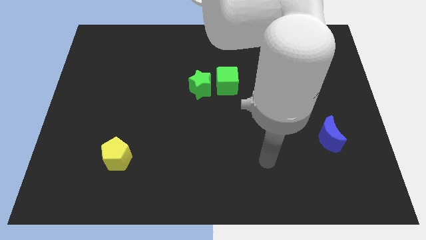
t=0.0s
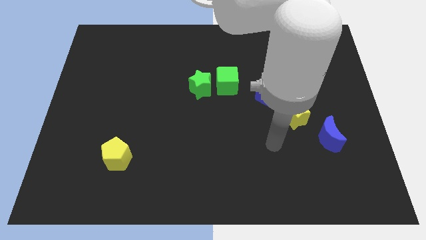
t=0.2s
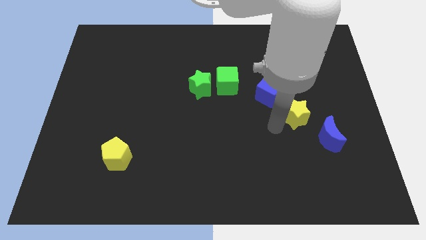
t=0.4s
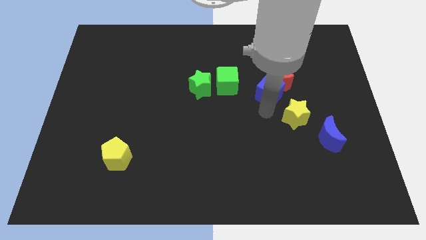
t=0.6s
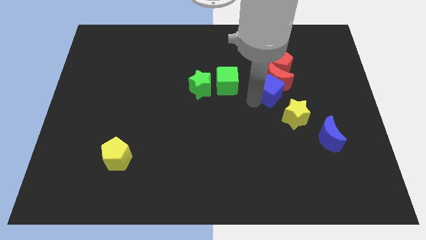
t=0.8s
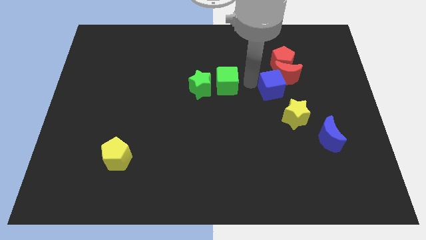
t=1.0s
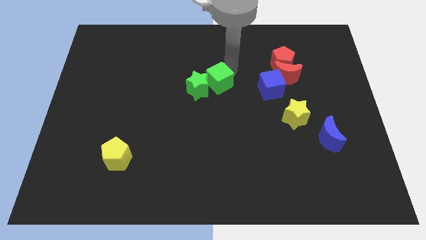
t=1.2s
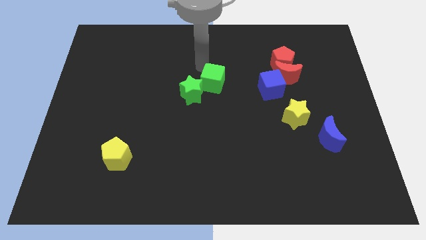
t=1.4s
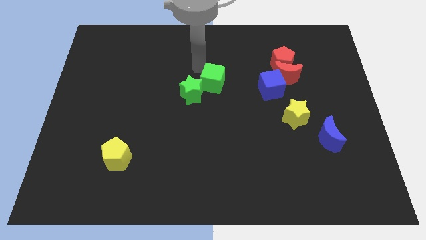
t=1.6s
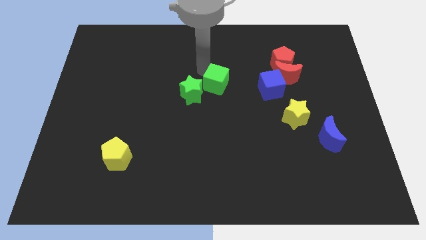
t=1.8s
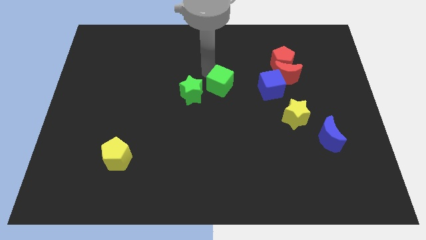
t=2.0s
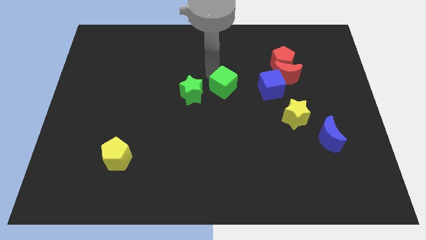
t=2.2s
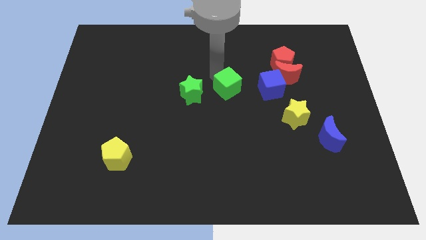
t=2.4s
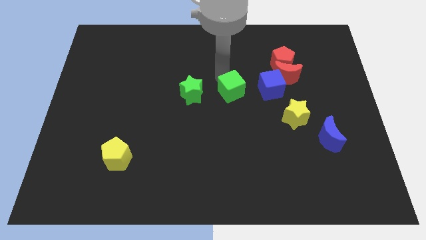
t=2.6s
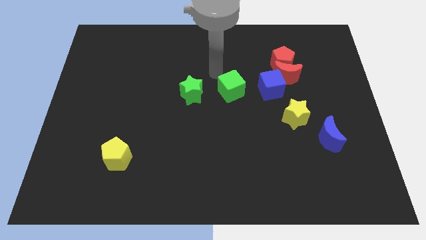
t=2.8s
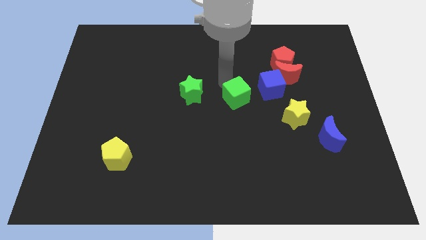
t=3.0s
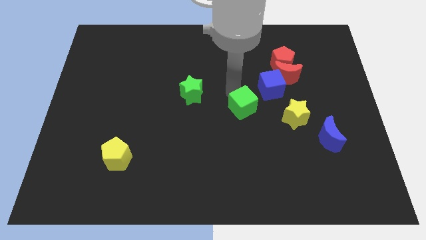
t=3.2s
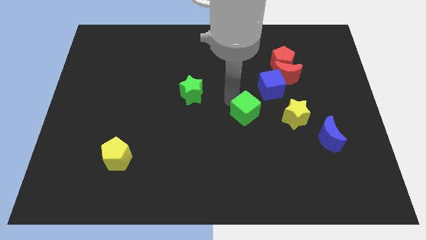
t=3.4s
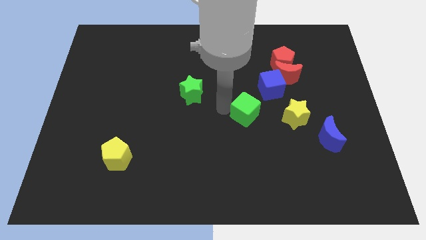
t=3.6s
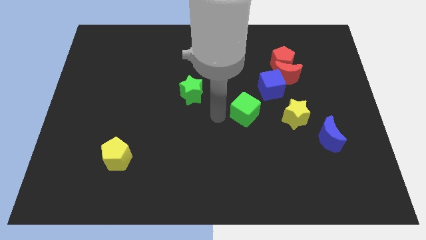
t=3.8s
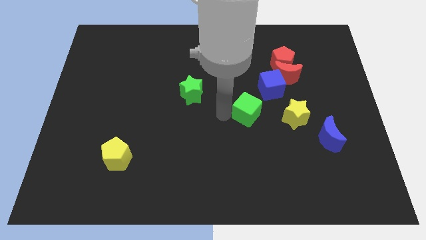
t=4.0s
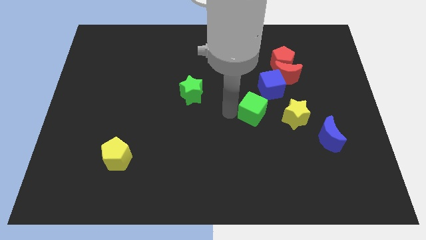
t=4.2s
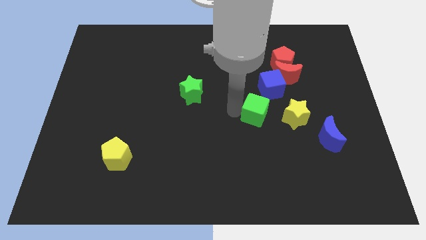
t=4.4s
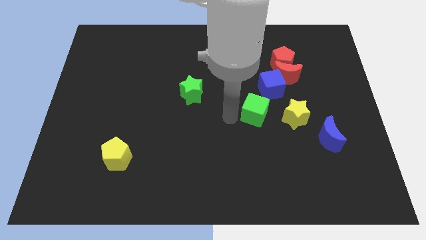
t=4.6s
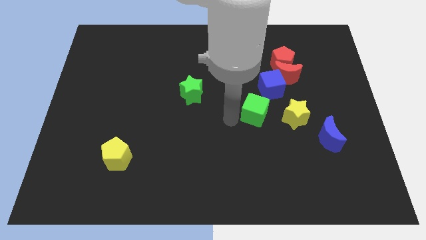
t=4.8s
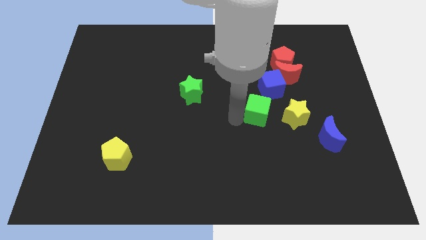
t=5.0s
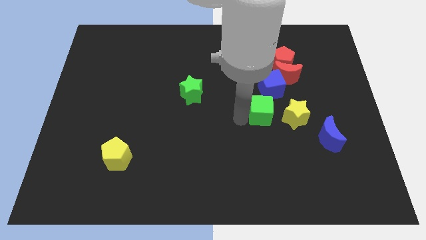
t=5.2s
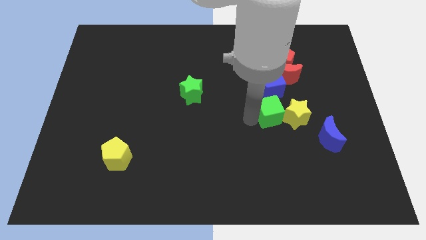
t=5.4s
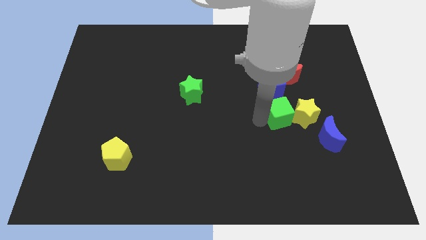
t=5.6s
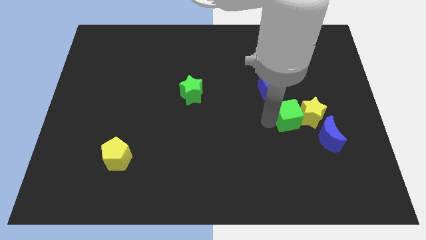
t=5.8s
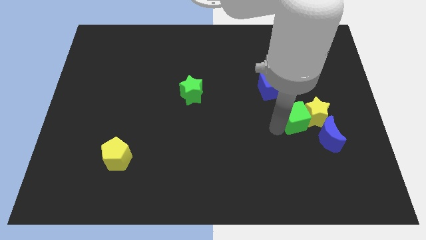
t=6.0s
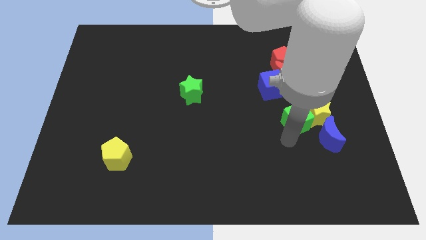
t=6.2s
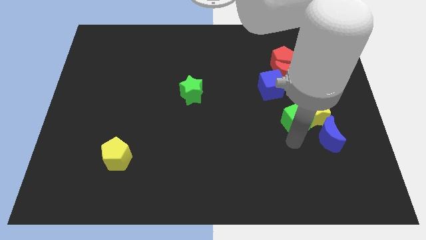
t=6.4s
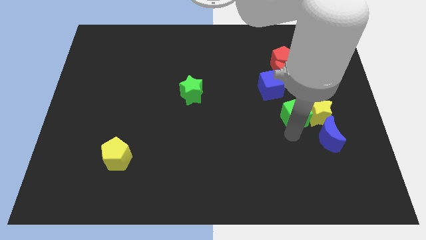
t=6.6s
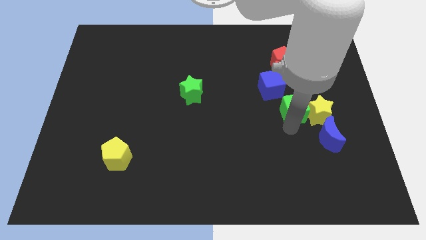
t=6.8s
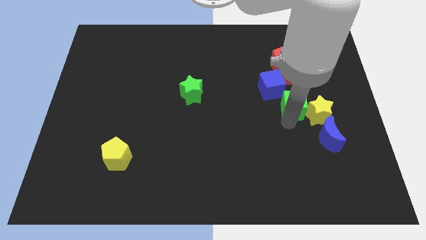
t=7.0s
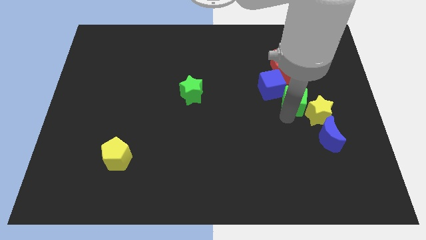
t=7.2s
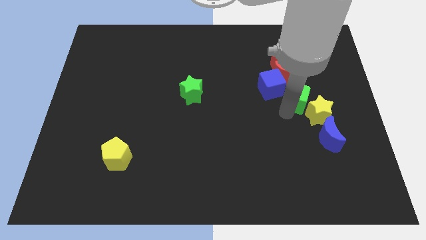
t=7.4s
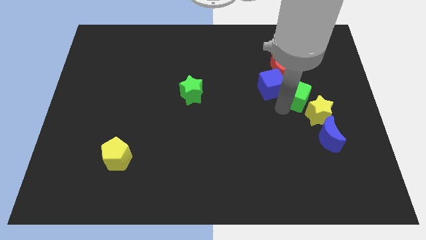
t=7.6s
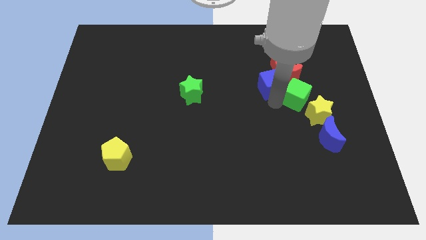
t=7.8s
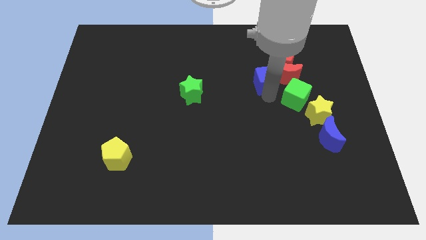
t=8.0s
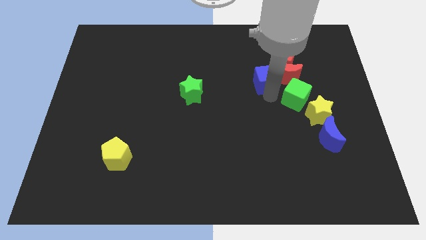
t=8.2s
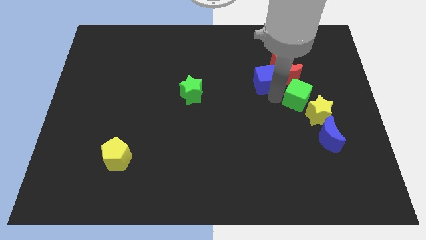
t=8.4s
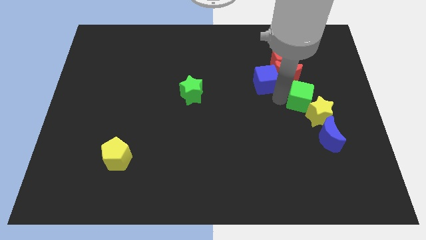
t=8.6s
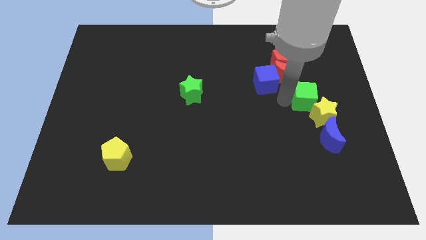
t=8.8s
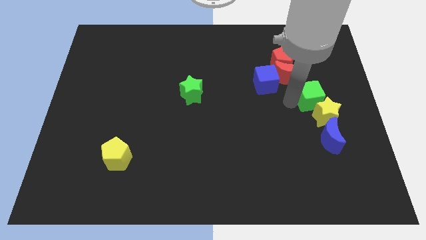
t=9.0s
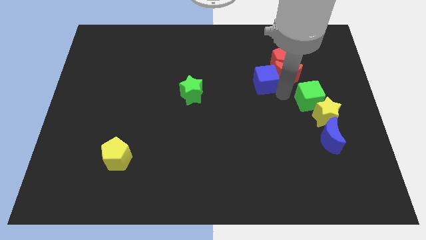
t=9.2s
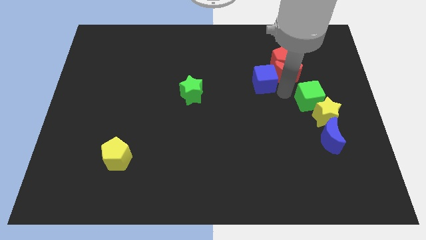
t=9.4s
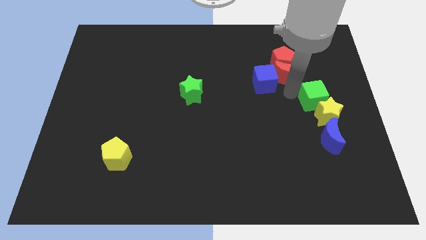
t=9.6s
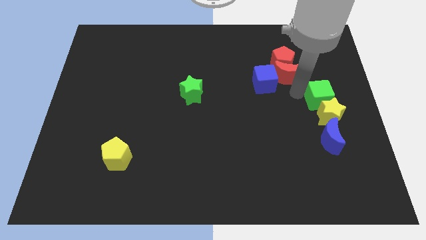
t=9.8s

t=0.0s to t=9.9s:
push the green cube to the center right

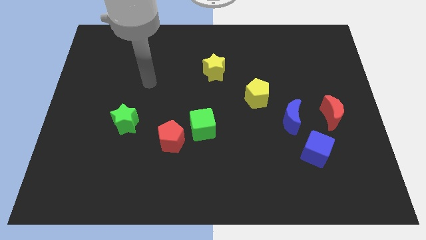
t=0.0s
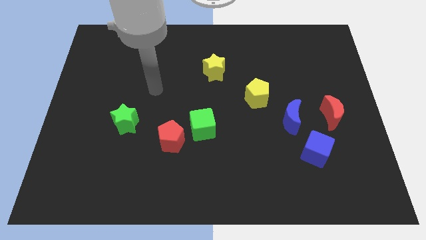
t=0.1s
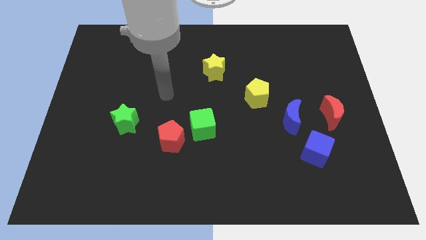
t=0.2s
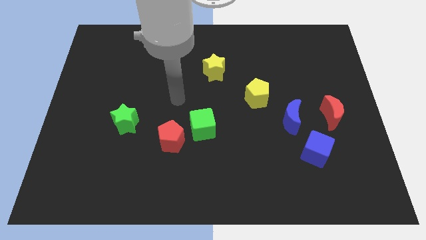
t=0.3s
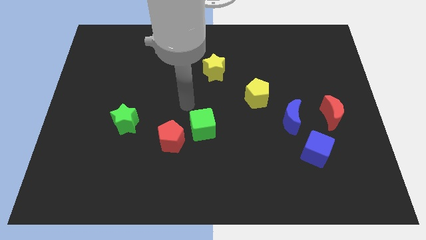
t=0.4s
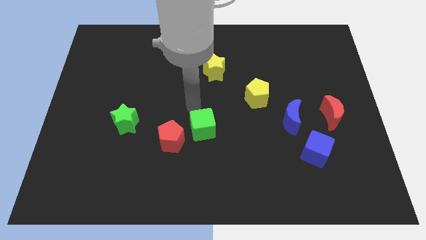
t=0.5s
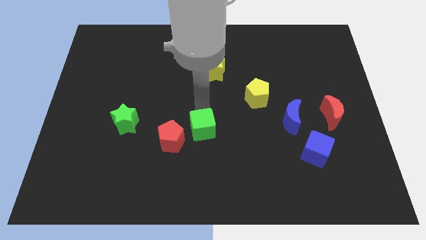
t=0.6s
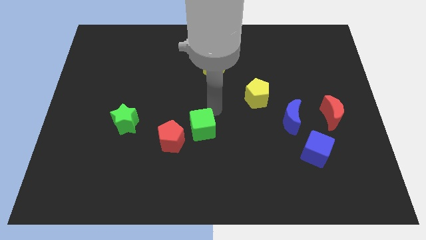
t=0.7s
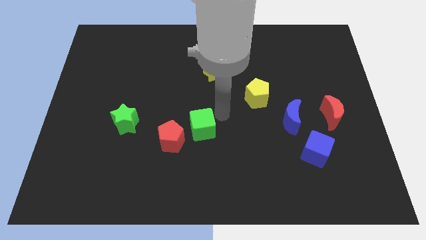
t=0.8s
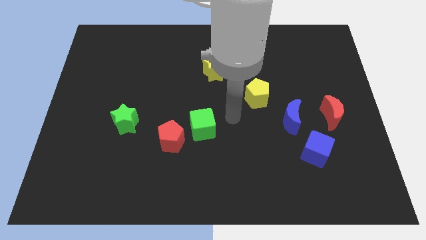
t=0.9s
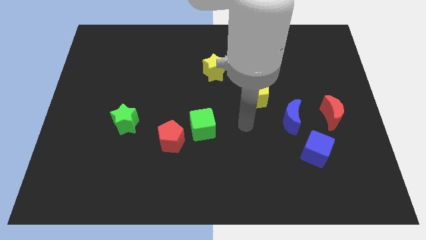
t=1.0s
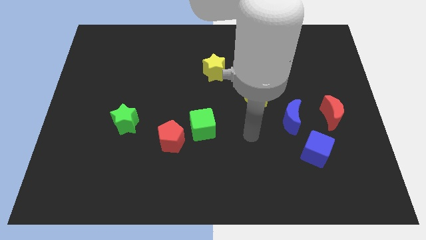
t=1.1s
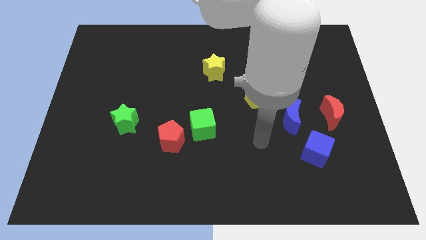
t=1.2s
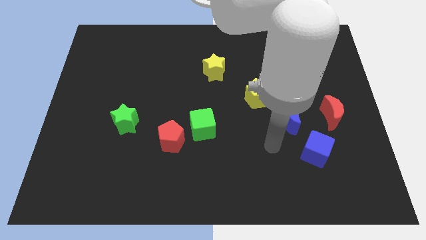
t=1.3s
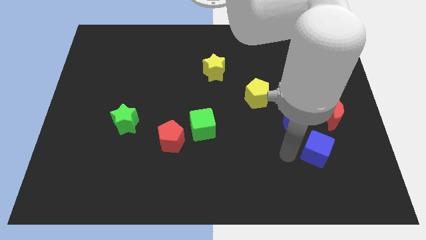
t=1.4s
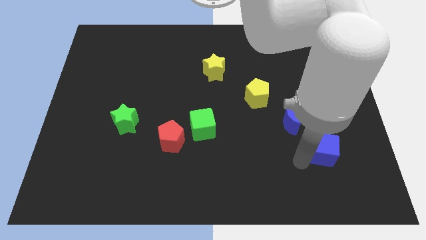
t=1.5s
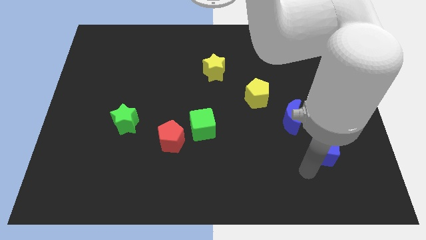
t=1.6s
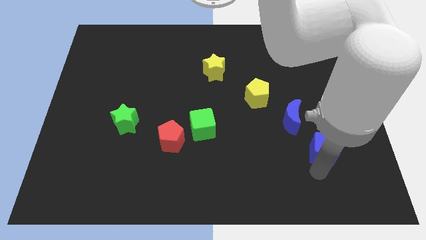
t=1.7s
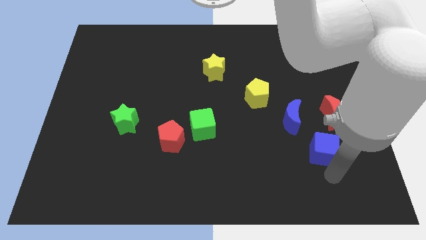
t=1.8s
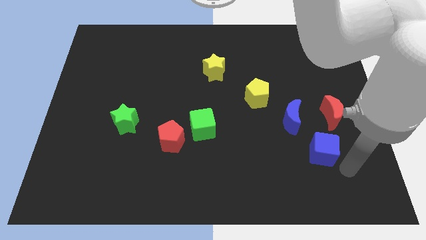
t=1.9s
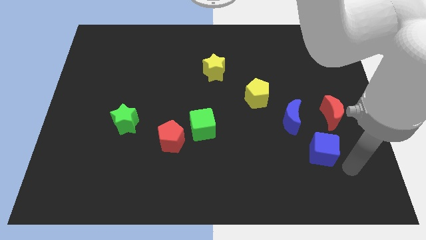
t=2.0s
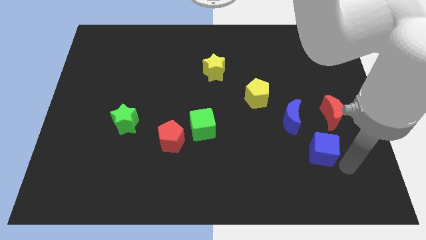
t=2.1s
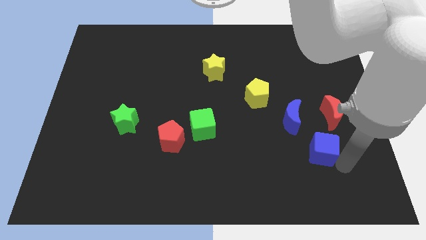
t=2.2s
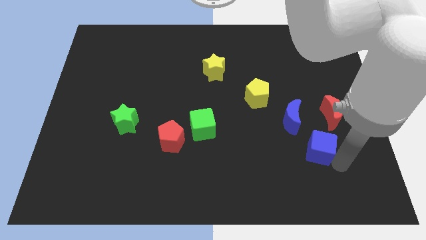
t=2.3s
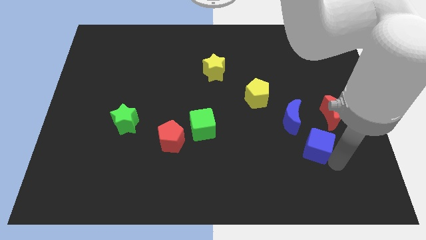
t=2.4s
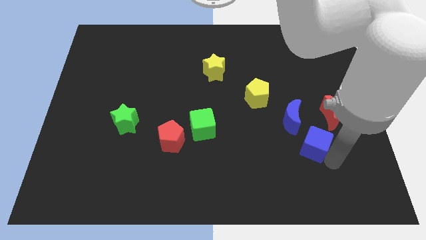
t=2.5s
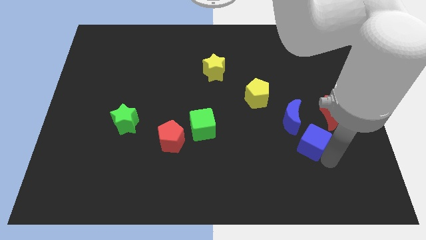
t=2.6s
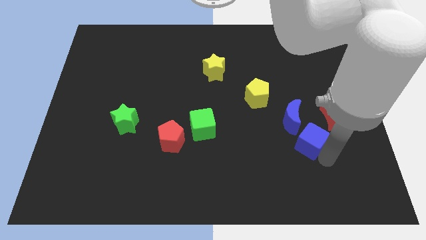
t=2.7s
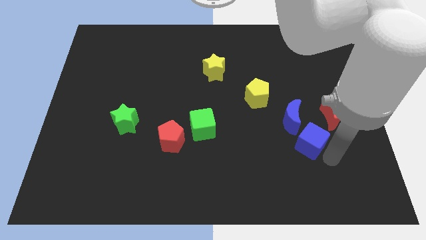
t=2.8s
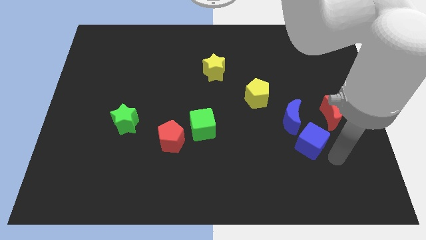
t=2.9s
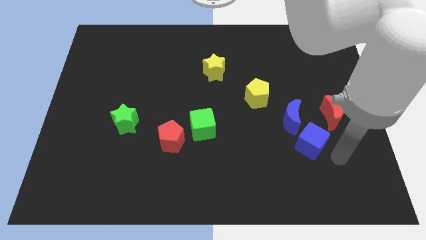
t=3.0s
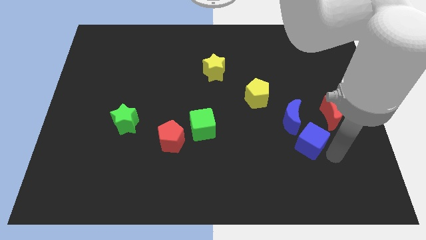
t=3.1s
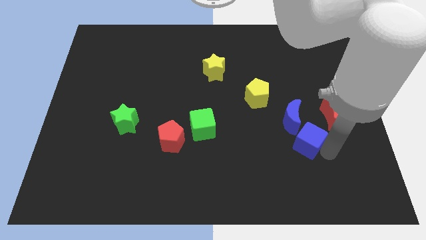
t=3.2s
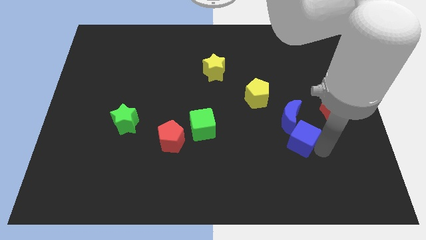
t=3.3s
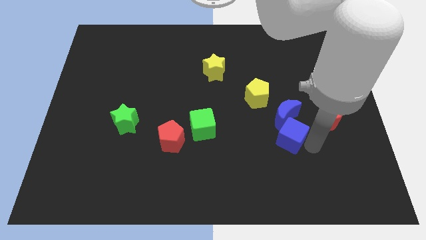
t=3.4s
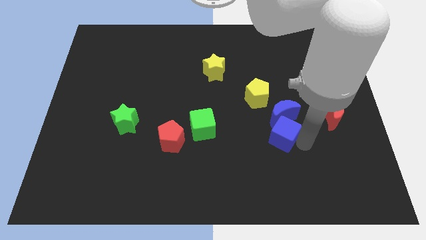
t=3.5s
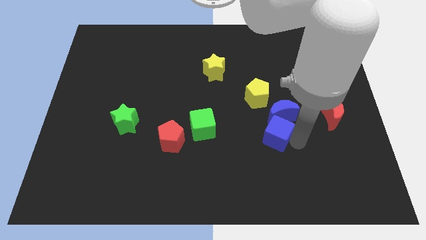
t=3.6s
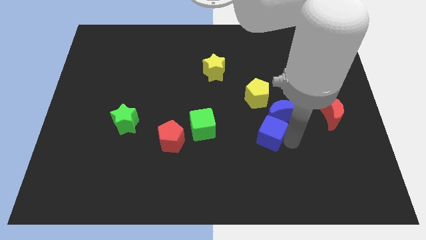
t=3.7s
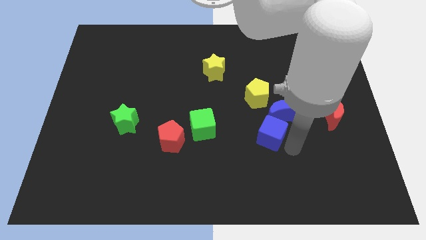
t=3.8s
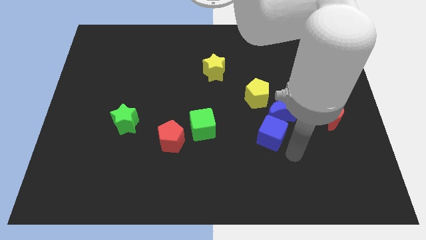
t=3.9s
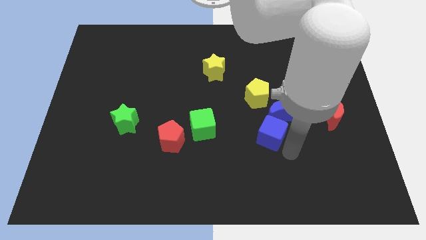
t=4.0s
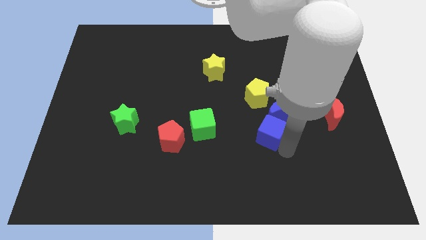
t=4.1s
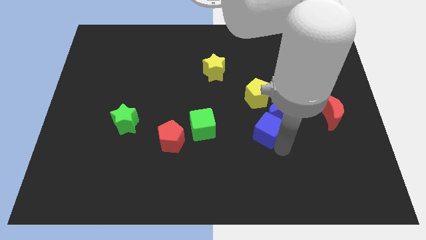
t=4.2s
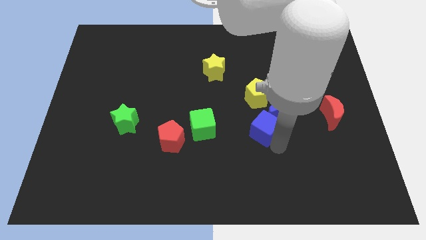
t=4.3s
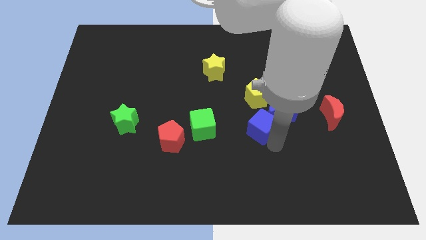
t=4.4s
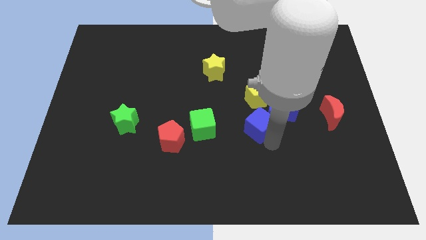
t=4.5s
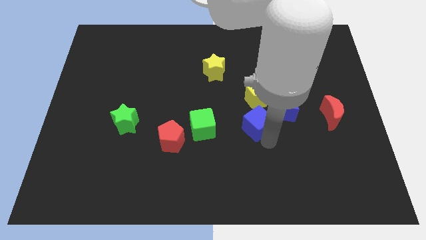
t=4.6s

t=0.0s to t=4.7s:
put the blue cube to the center of the board
